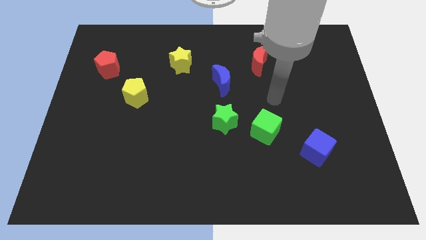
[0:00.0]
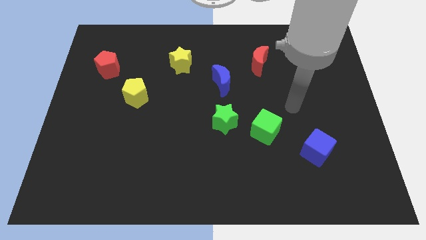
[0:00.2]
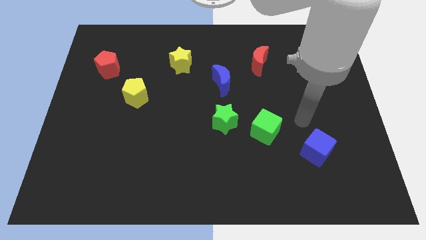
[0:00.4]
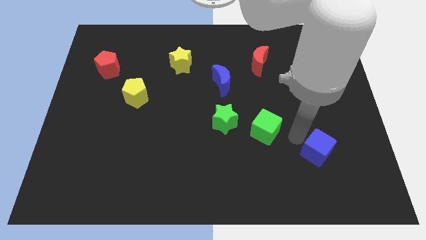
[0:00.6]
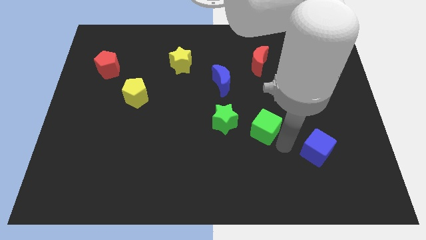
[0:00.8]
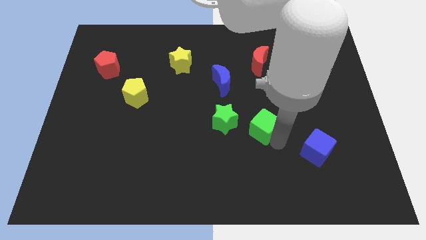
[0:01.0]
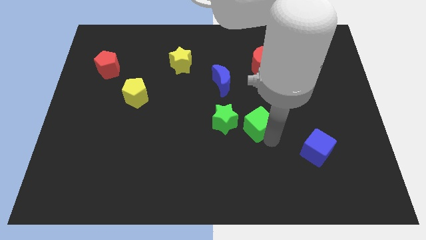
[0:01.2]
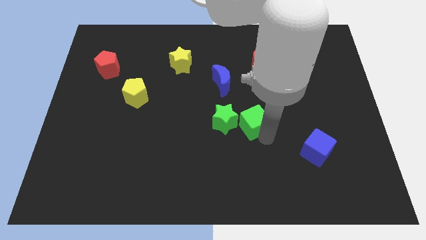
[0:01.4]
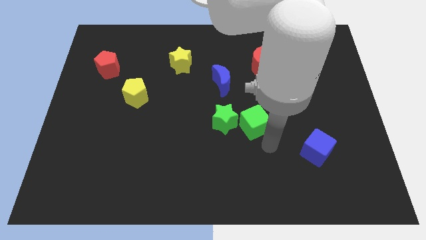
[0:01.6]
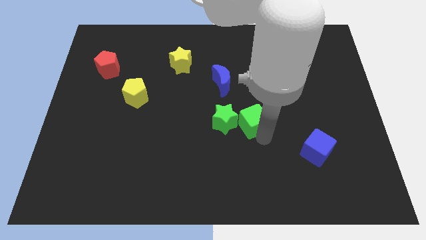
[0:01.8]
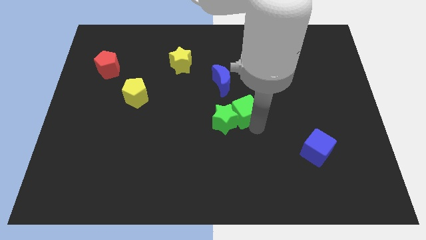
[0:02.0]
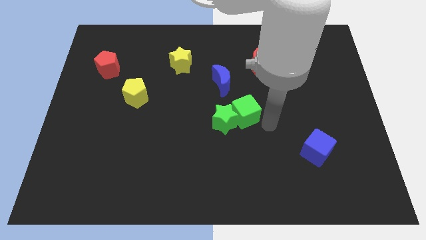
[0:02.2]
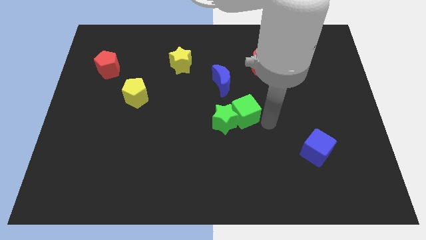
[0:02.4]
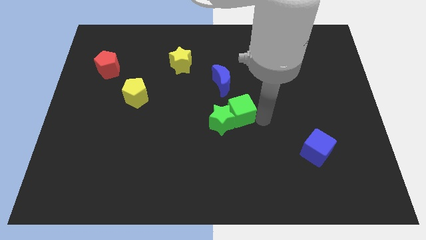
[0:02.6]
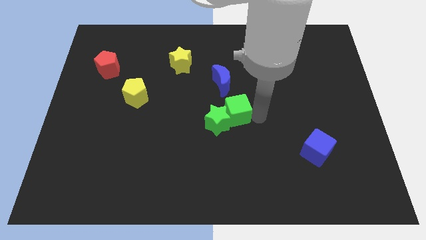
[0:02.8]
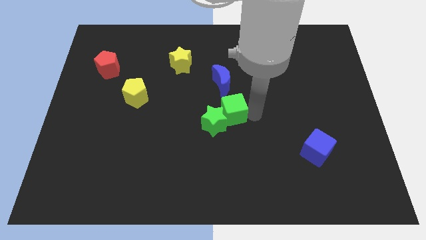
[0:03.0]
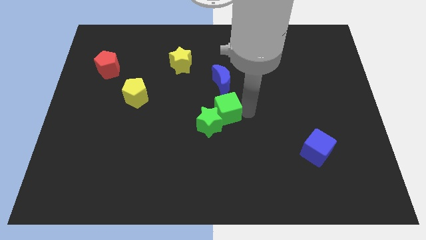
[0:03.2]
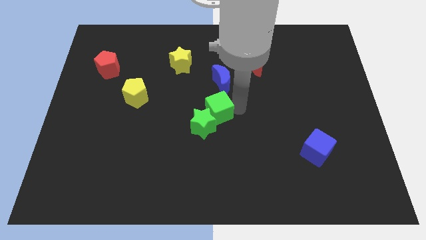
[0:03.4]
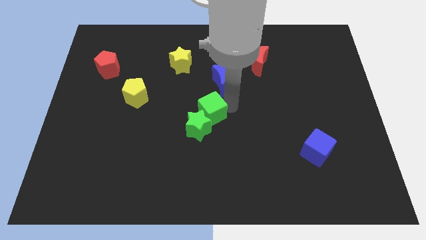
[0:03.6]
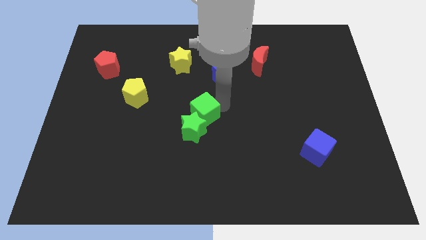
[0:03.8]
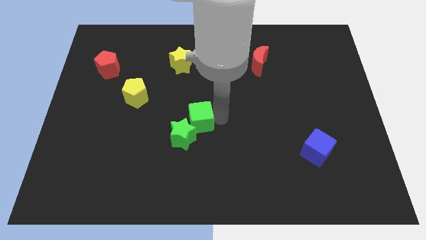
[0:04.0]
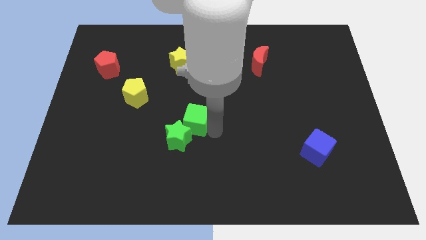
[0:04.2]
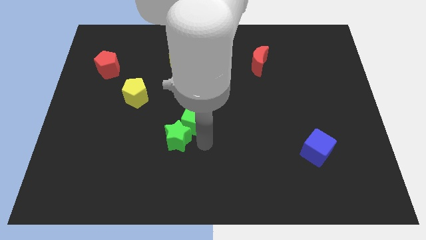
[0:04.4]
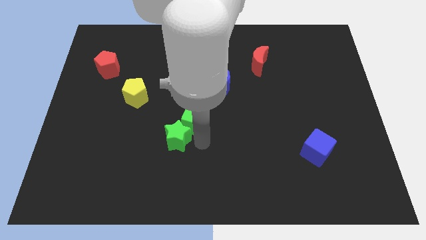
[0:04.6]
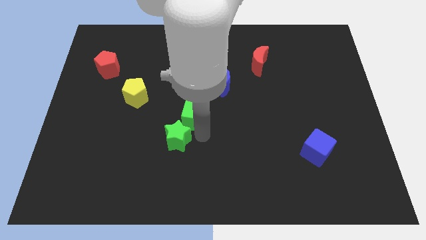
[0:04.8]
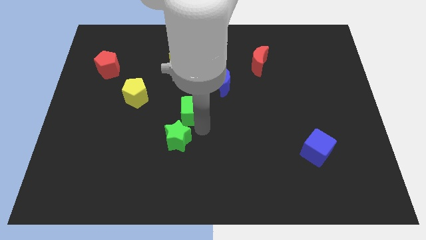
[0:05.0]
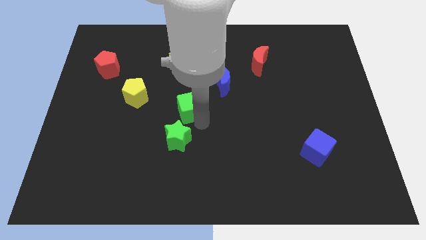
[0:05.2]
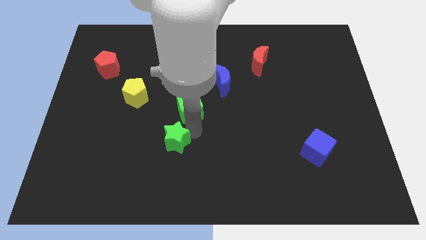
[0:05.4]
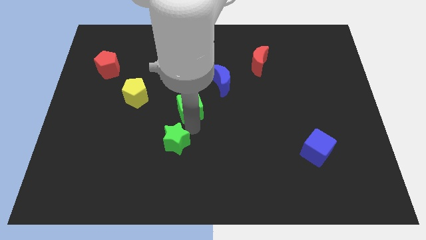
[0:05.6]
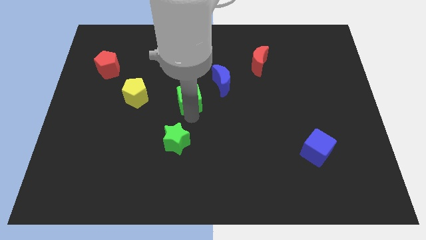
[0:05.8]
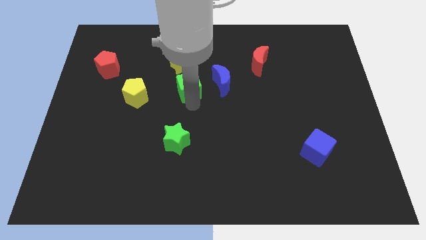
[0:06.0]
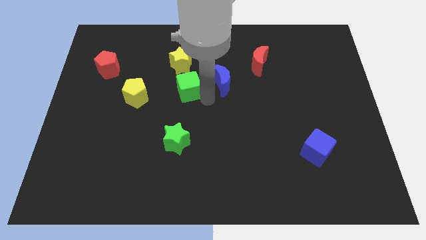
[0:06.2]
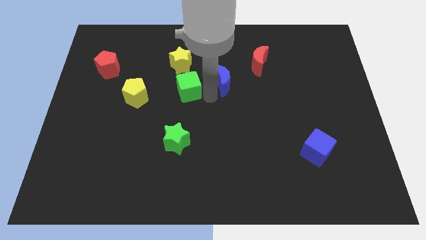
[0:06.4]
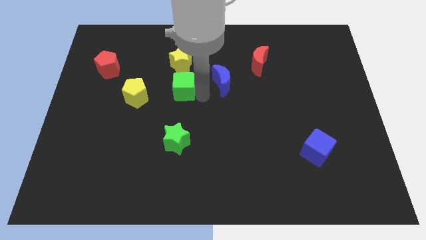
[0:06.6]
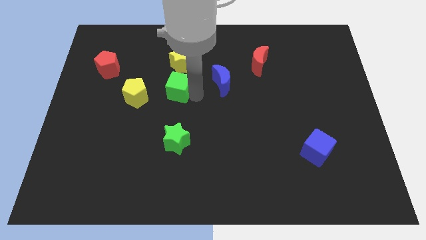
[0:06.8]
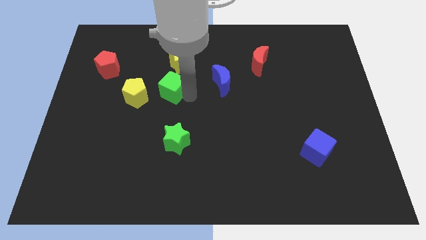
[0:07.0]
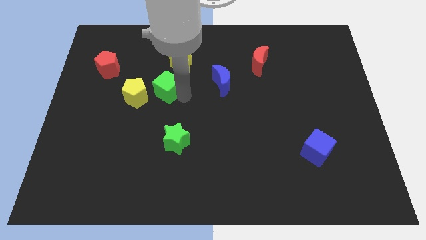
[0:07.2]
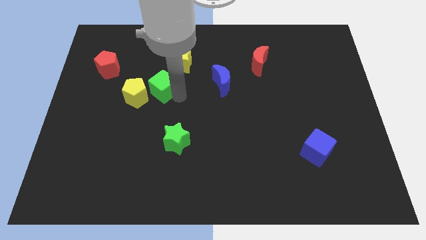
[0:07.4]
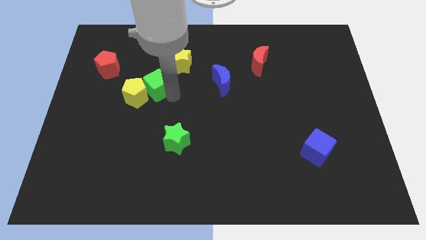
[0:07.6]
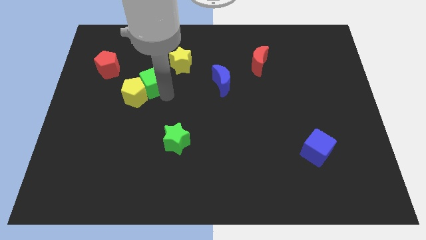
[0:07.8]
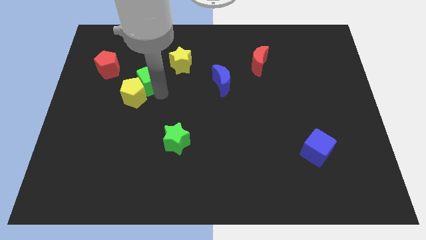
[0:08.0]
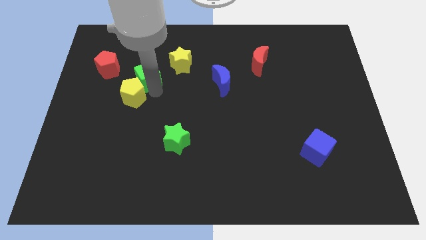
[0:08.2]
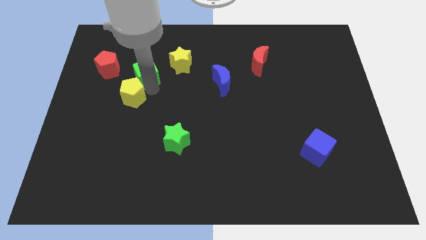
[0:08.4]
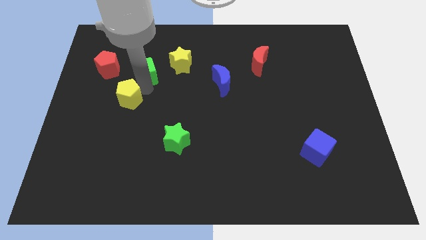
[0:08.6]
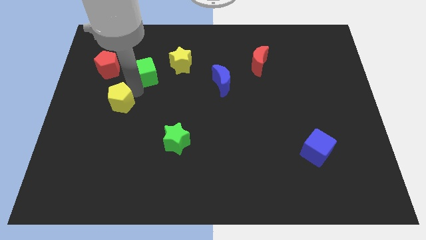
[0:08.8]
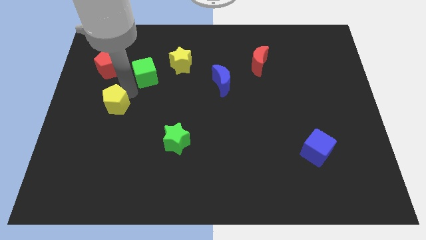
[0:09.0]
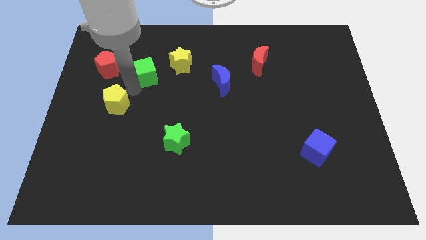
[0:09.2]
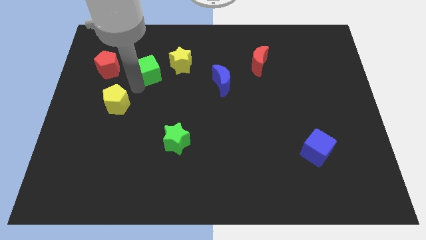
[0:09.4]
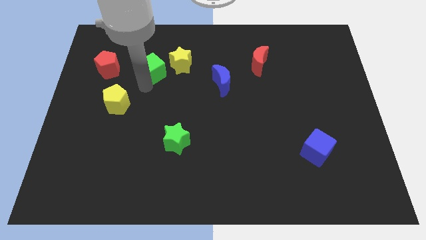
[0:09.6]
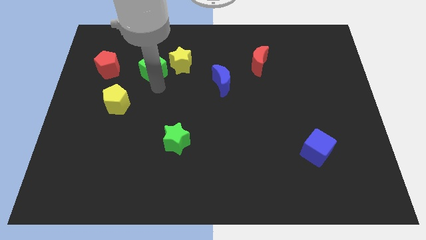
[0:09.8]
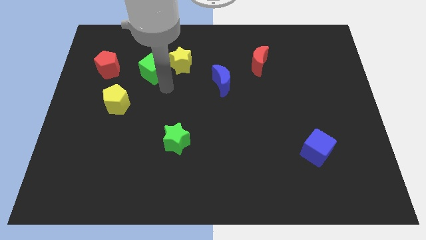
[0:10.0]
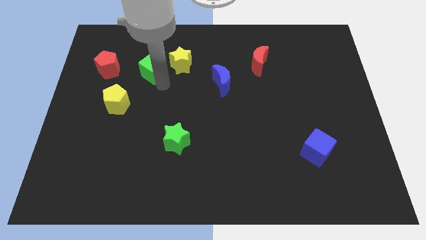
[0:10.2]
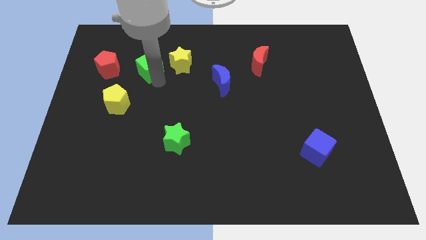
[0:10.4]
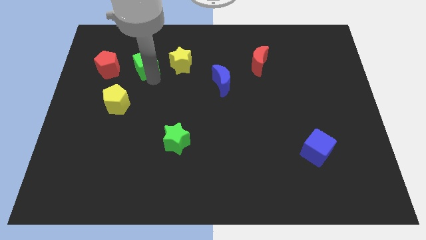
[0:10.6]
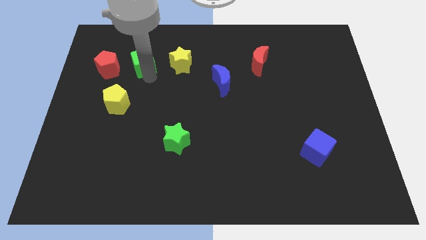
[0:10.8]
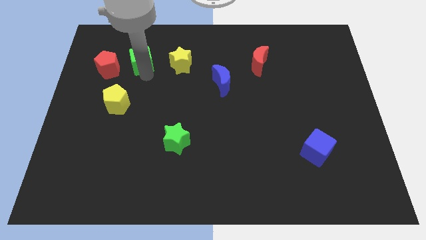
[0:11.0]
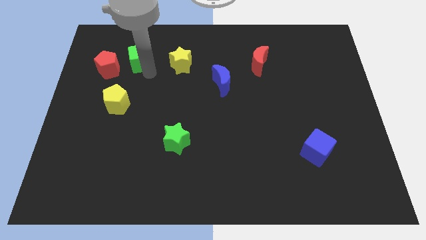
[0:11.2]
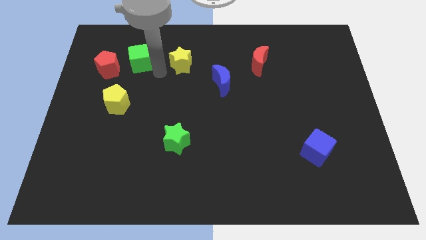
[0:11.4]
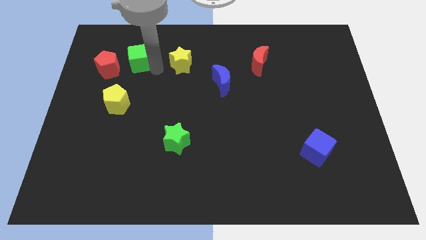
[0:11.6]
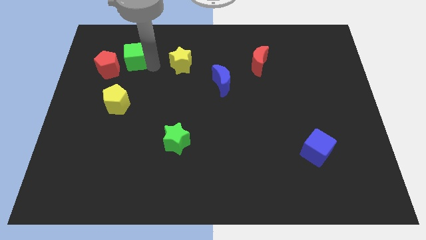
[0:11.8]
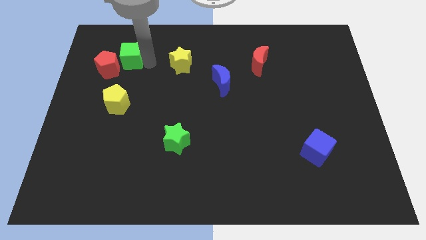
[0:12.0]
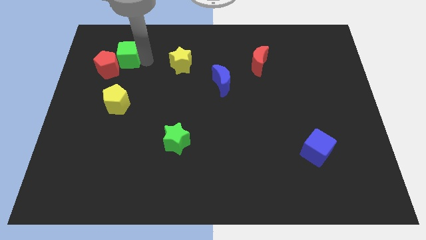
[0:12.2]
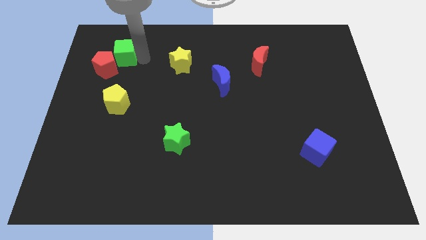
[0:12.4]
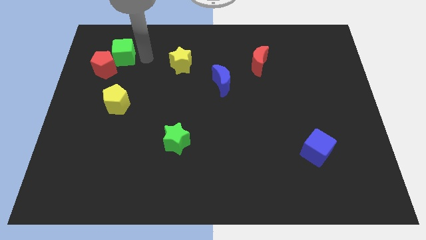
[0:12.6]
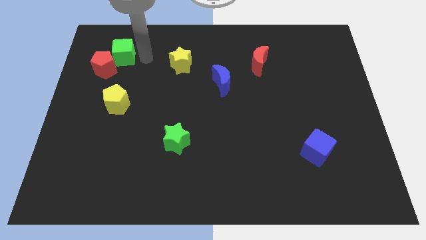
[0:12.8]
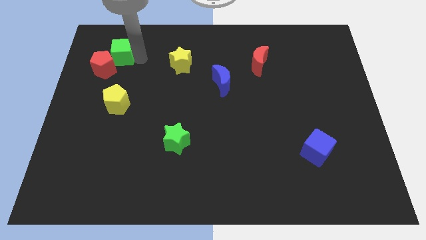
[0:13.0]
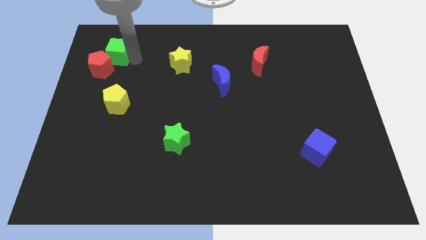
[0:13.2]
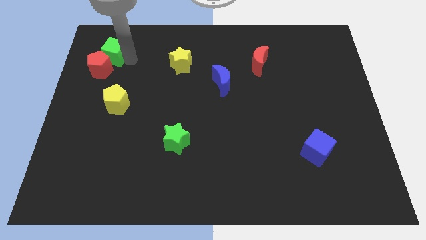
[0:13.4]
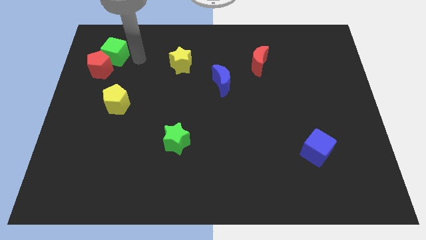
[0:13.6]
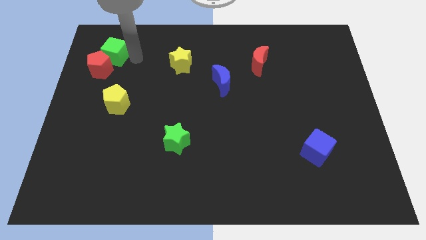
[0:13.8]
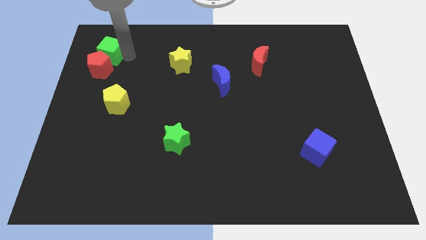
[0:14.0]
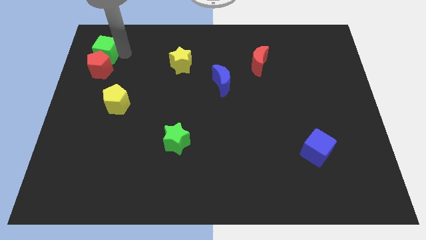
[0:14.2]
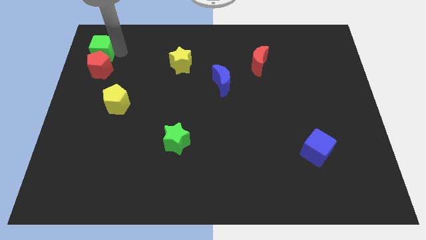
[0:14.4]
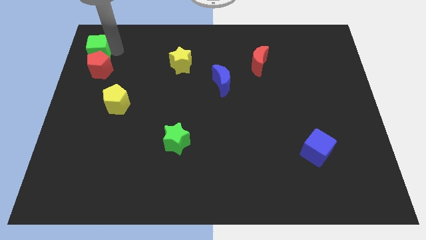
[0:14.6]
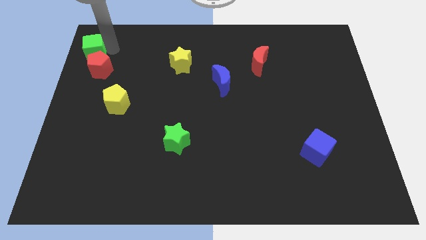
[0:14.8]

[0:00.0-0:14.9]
put the green cube to the upper left corner

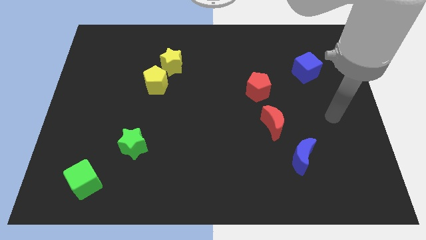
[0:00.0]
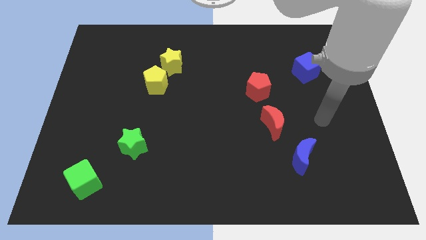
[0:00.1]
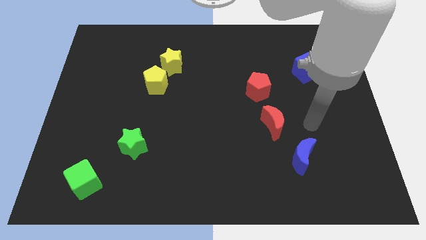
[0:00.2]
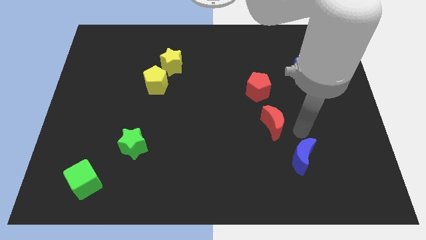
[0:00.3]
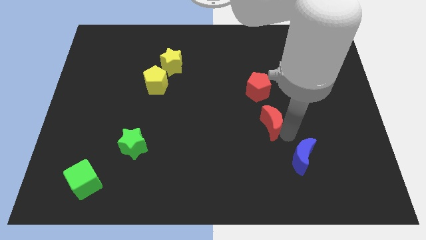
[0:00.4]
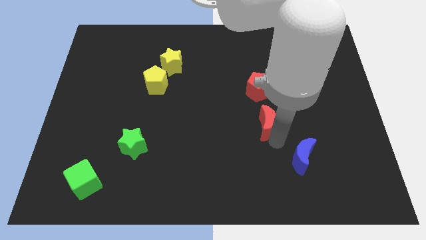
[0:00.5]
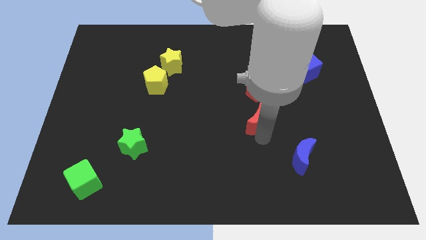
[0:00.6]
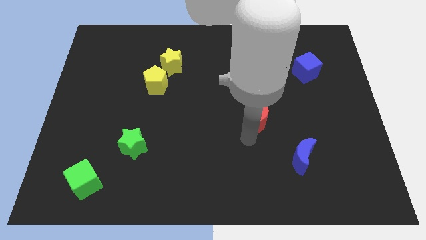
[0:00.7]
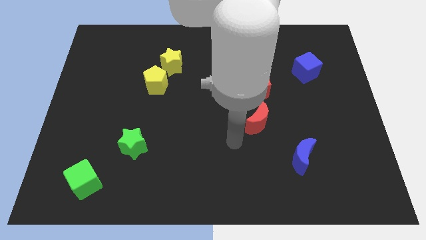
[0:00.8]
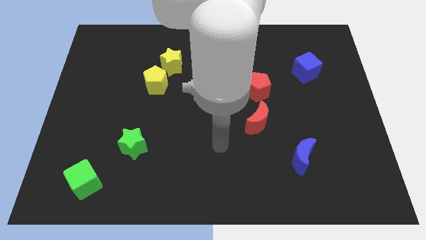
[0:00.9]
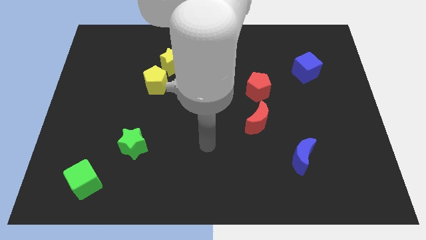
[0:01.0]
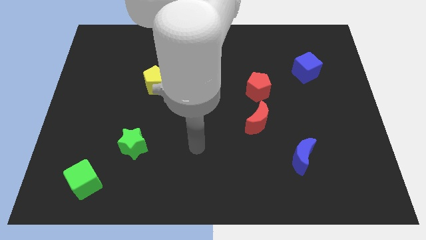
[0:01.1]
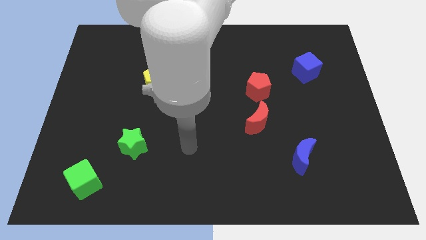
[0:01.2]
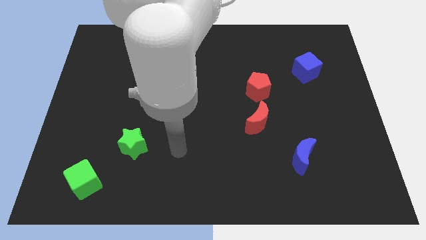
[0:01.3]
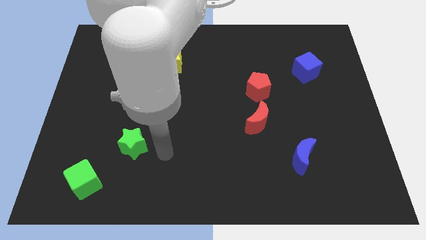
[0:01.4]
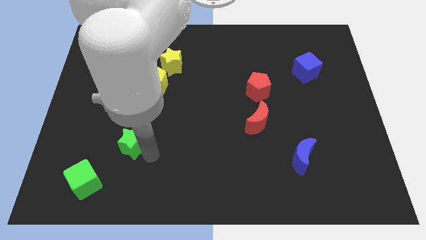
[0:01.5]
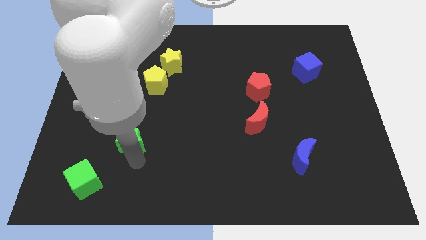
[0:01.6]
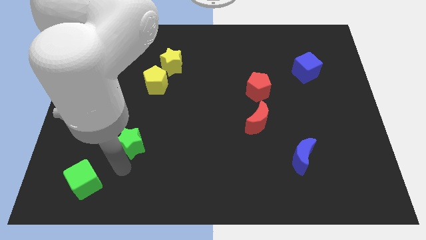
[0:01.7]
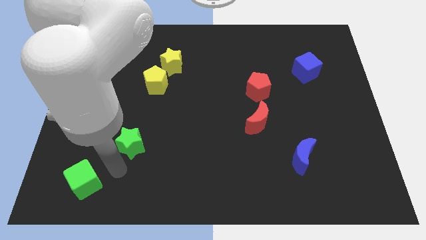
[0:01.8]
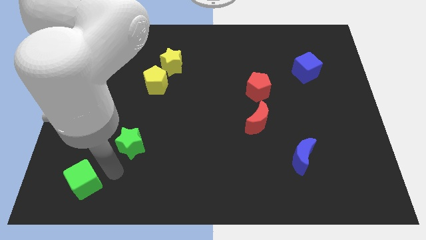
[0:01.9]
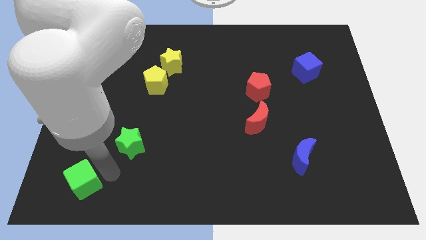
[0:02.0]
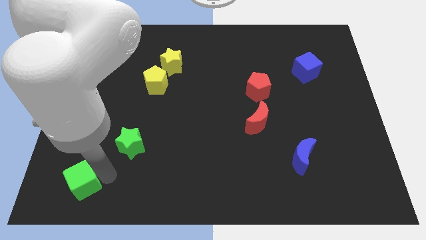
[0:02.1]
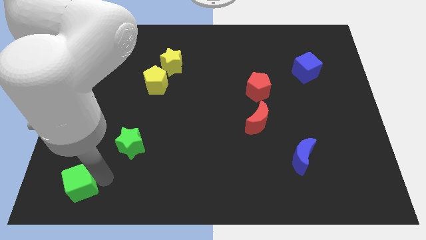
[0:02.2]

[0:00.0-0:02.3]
move the green cube to the lower left corner
